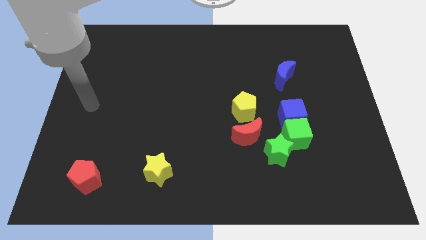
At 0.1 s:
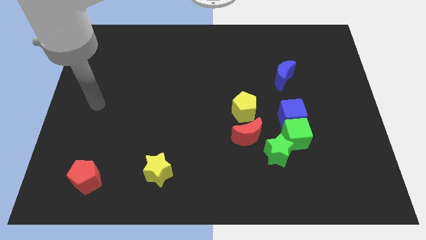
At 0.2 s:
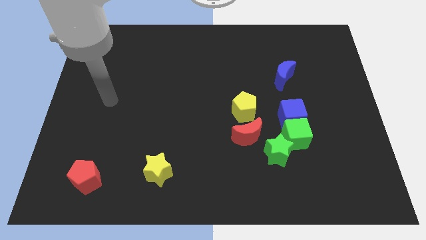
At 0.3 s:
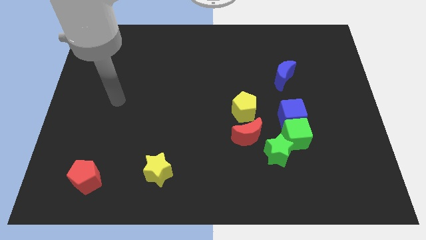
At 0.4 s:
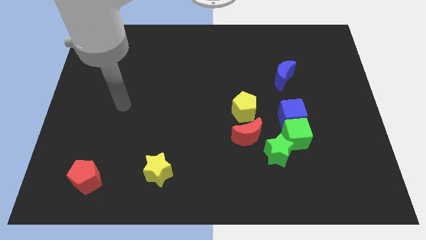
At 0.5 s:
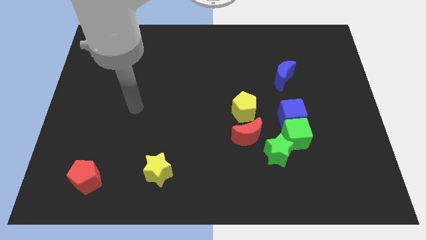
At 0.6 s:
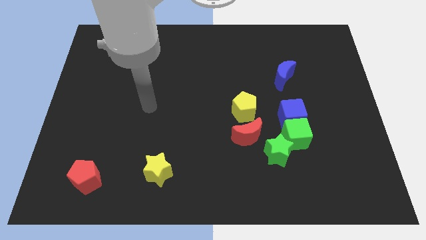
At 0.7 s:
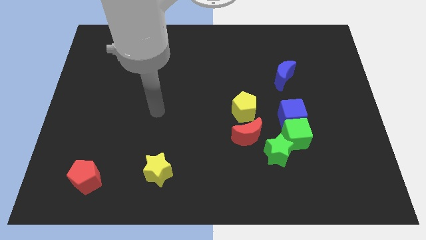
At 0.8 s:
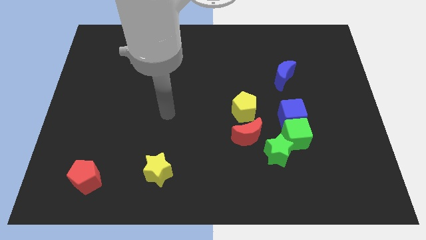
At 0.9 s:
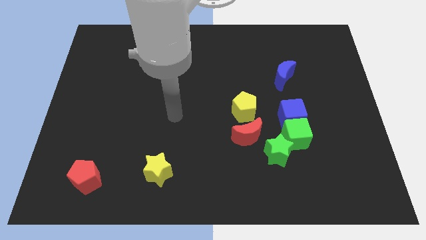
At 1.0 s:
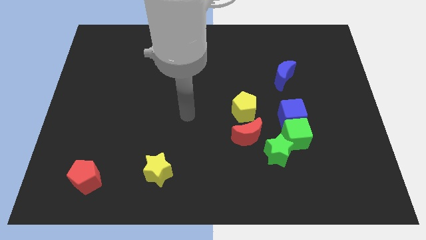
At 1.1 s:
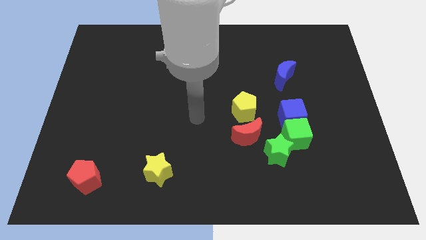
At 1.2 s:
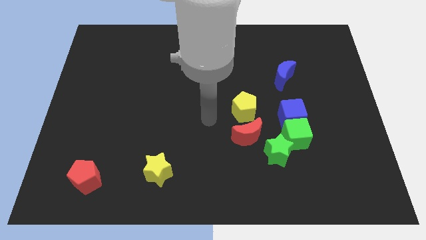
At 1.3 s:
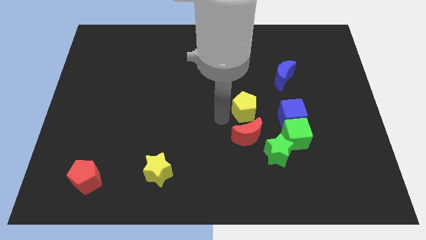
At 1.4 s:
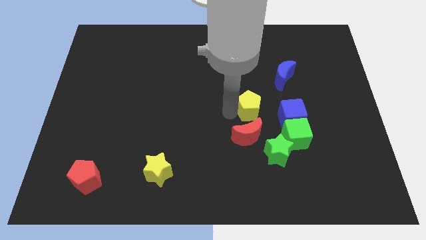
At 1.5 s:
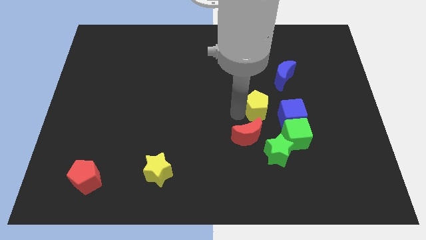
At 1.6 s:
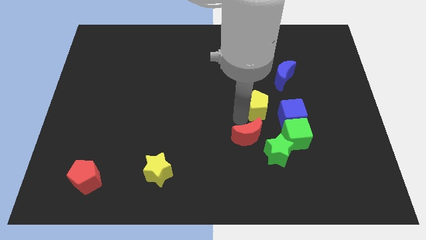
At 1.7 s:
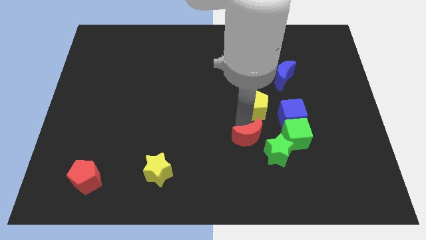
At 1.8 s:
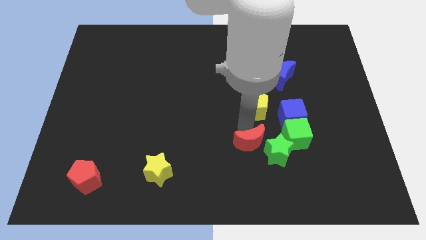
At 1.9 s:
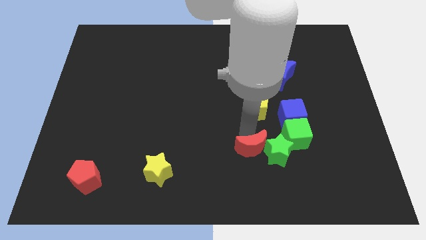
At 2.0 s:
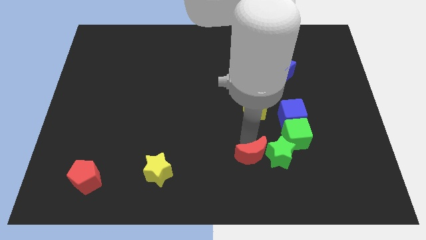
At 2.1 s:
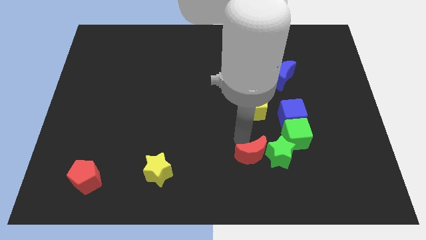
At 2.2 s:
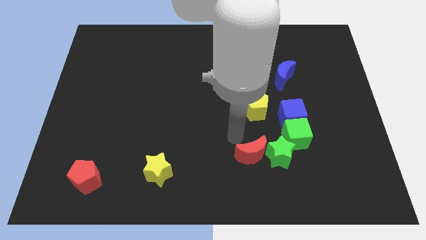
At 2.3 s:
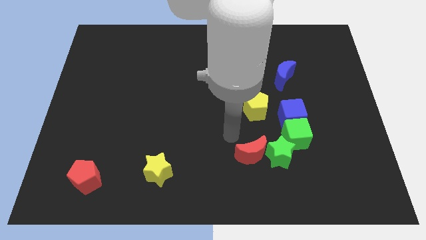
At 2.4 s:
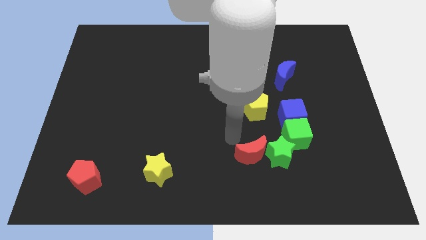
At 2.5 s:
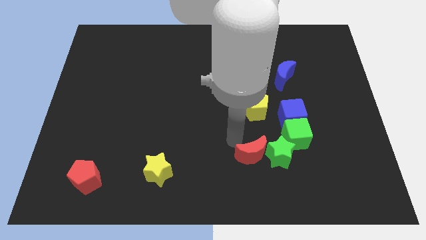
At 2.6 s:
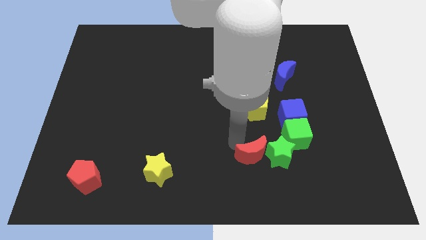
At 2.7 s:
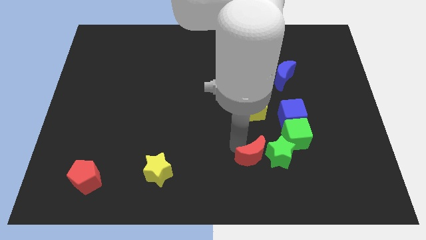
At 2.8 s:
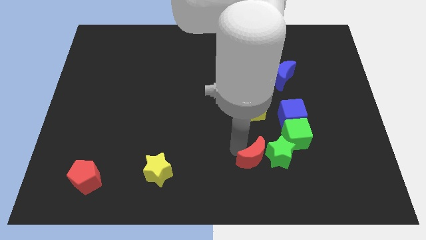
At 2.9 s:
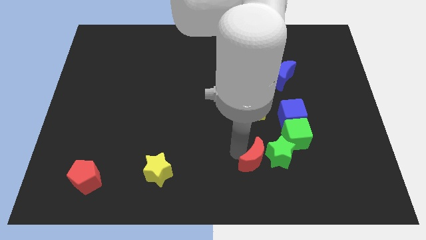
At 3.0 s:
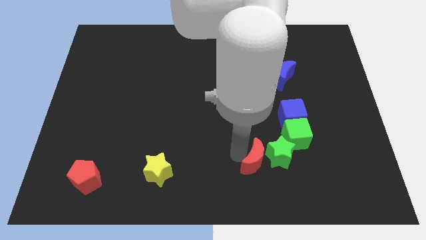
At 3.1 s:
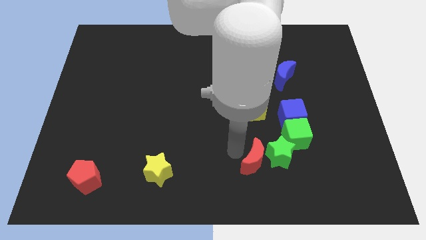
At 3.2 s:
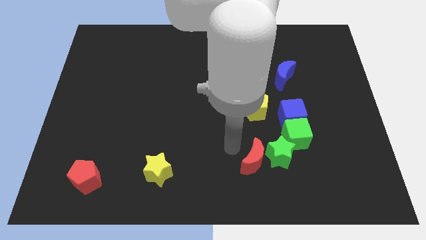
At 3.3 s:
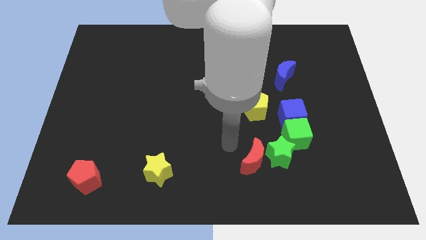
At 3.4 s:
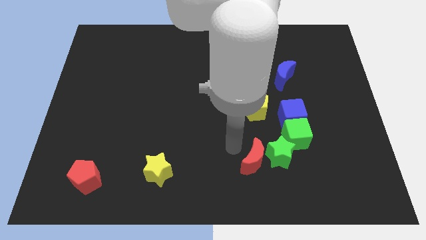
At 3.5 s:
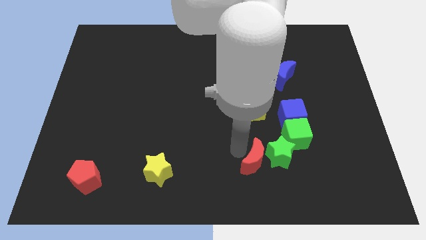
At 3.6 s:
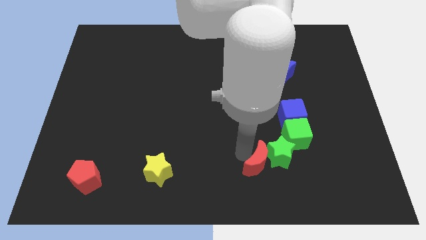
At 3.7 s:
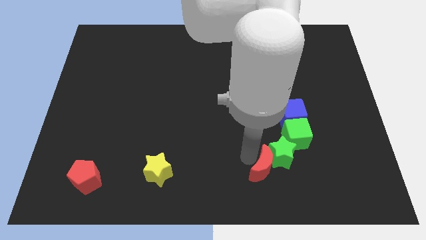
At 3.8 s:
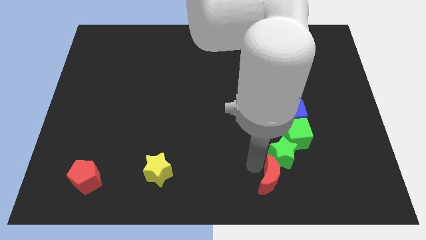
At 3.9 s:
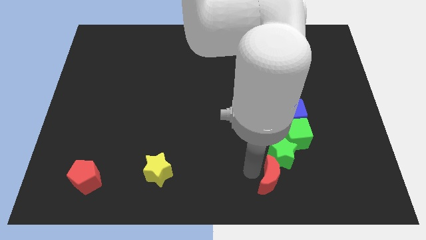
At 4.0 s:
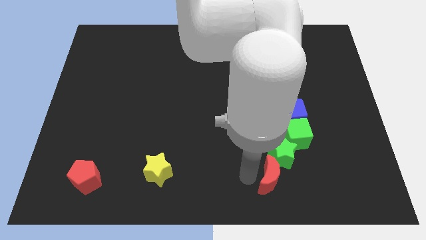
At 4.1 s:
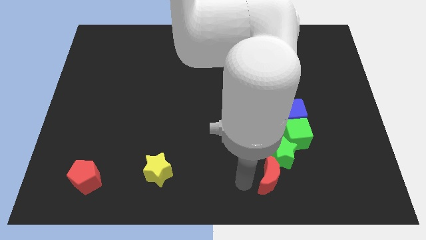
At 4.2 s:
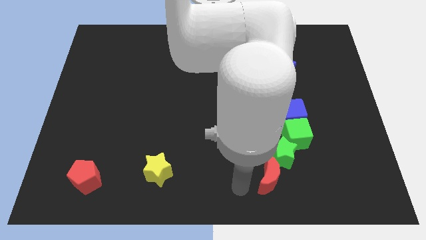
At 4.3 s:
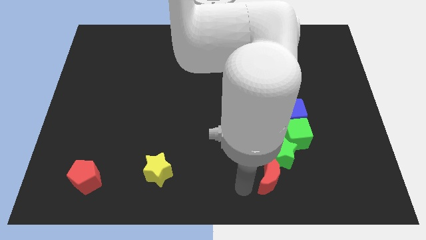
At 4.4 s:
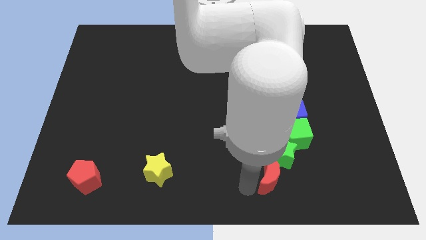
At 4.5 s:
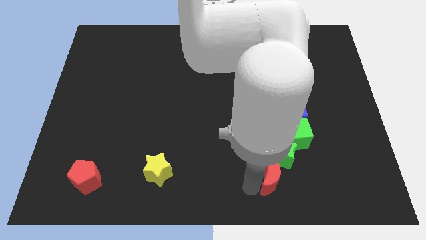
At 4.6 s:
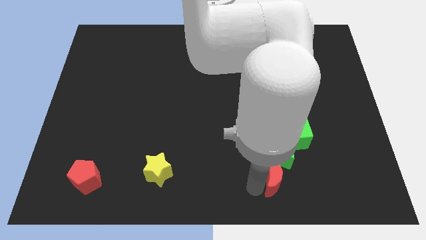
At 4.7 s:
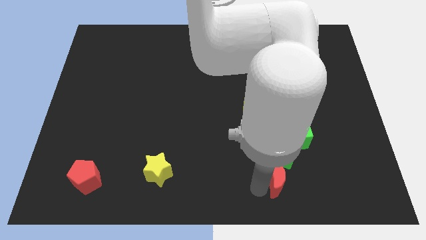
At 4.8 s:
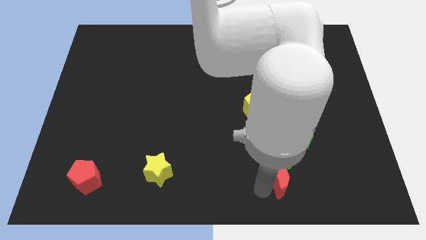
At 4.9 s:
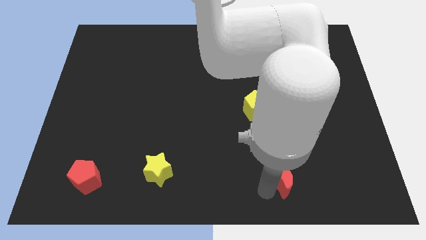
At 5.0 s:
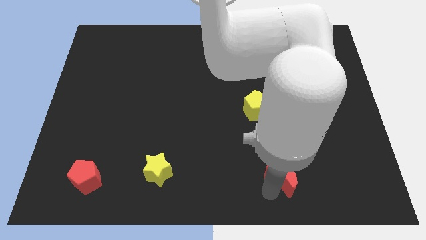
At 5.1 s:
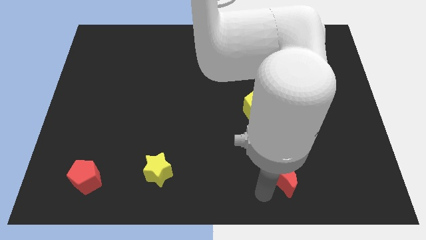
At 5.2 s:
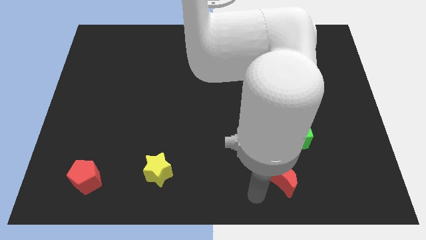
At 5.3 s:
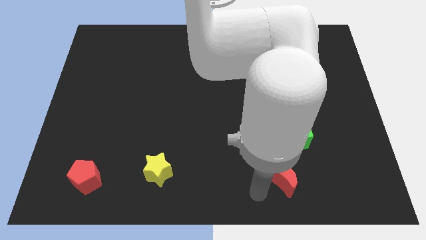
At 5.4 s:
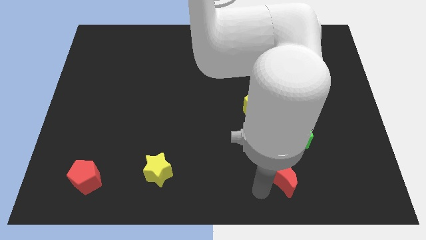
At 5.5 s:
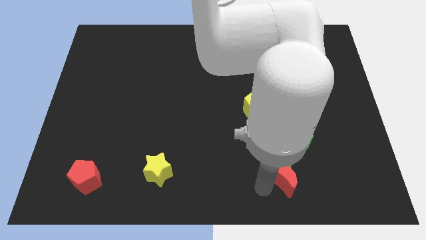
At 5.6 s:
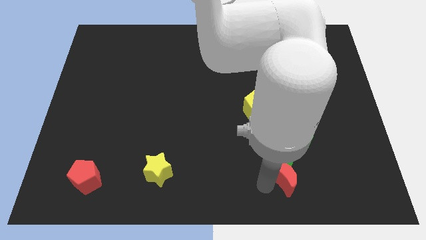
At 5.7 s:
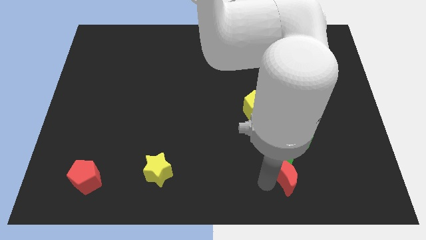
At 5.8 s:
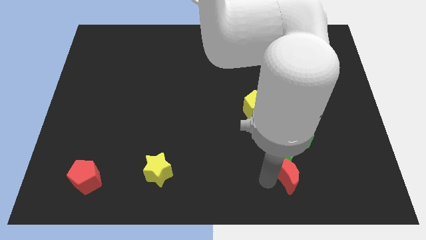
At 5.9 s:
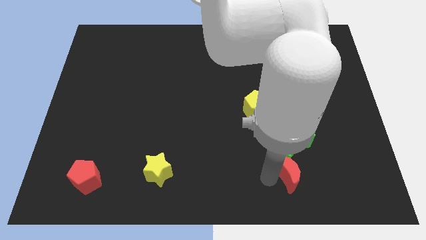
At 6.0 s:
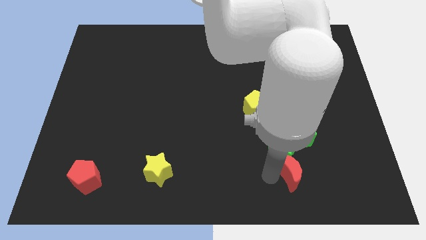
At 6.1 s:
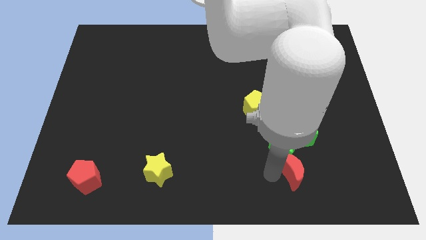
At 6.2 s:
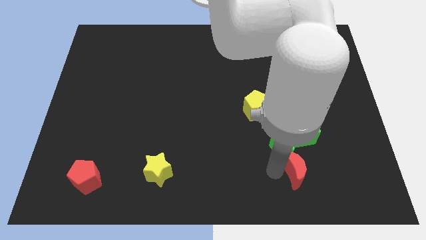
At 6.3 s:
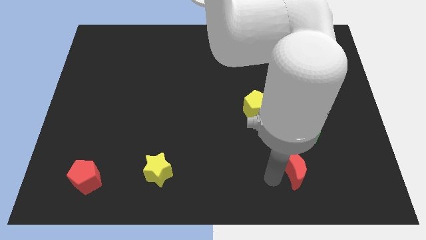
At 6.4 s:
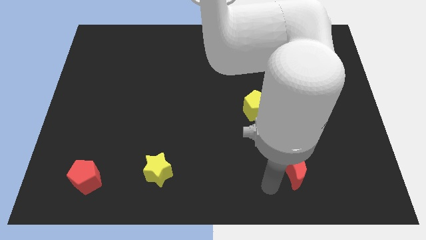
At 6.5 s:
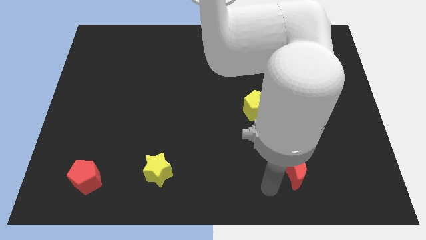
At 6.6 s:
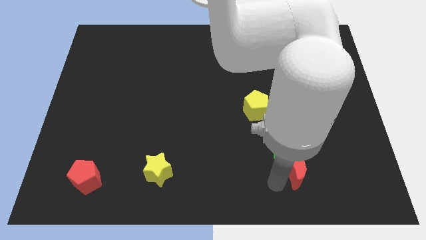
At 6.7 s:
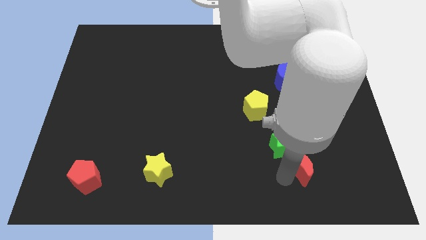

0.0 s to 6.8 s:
push the red moon a little bit to the right

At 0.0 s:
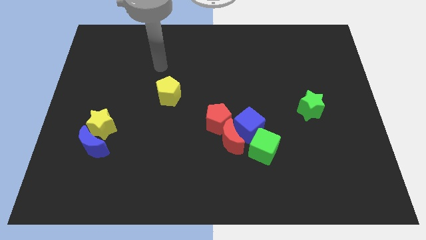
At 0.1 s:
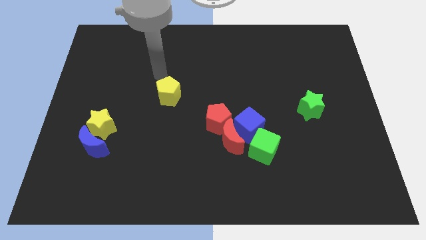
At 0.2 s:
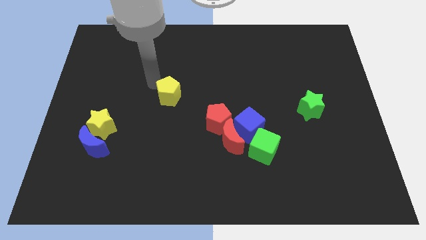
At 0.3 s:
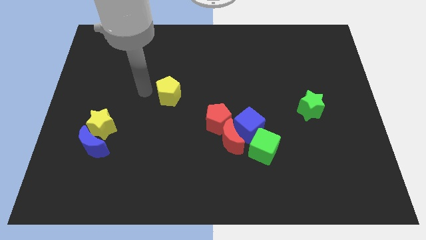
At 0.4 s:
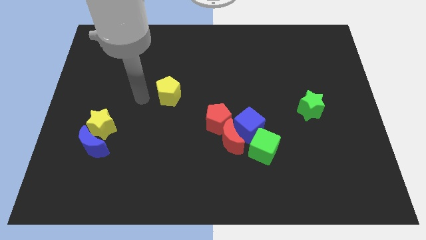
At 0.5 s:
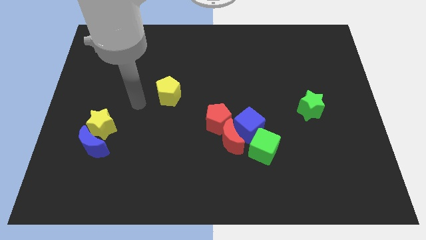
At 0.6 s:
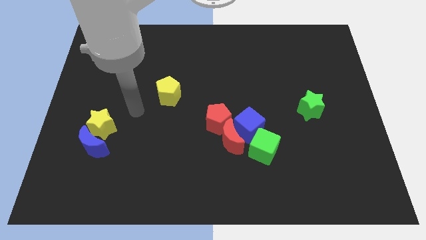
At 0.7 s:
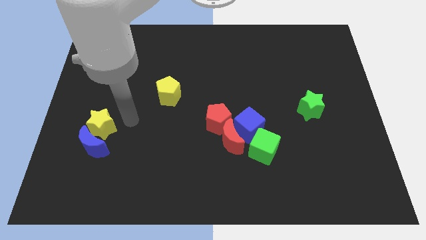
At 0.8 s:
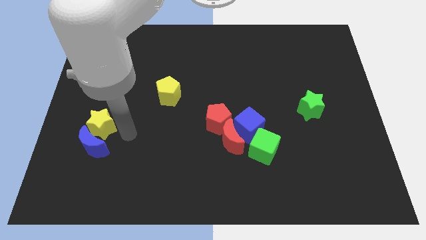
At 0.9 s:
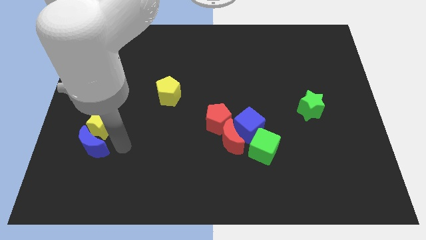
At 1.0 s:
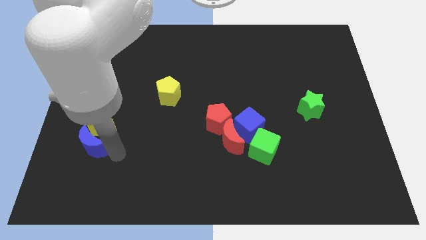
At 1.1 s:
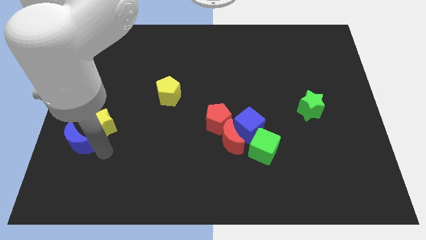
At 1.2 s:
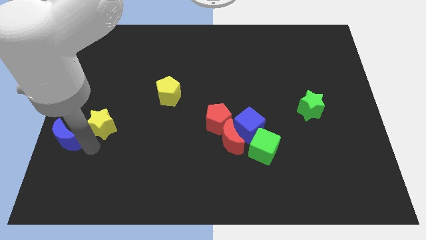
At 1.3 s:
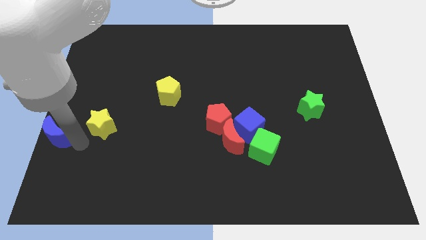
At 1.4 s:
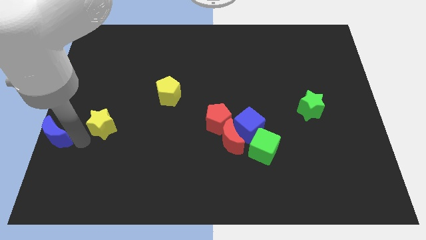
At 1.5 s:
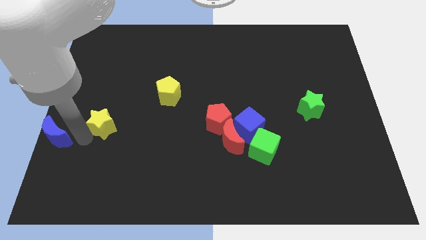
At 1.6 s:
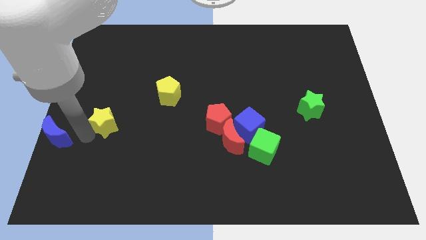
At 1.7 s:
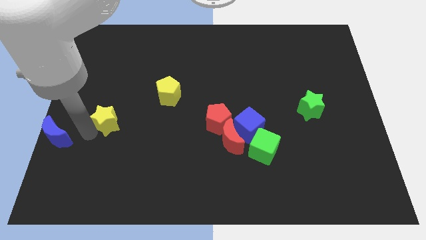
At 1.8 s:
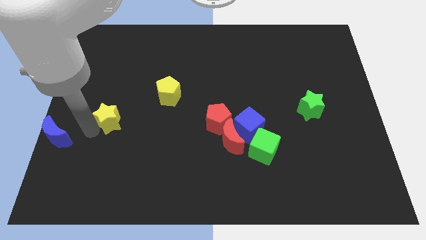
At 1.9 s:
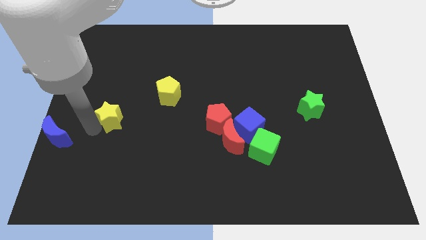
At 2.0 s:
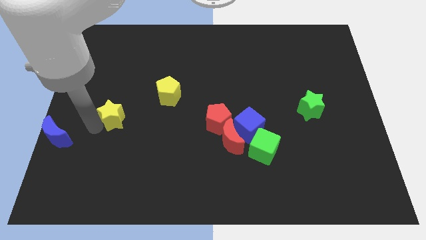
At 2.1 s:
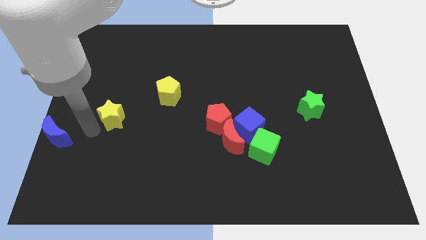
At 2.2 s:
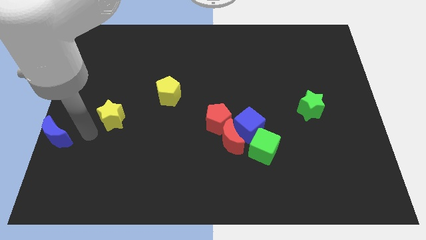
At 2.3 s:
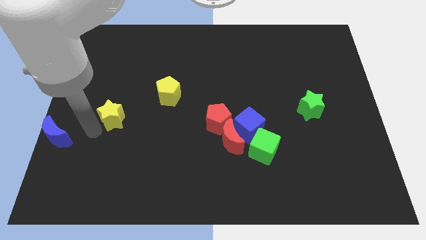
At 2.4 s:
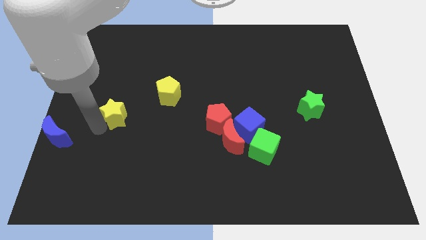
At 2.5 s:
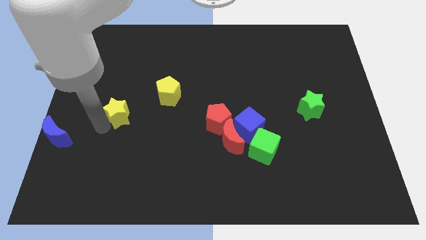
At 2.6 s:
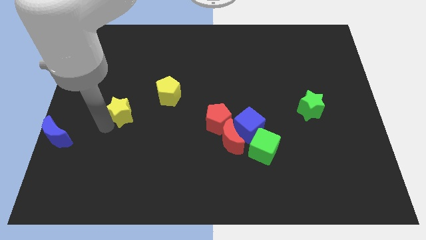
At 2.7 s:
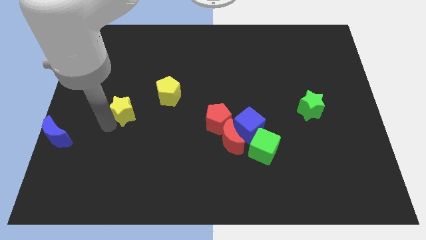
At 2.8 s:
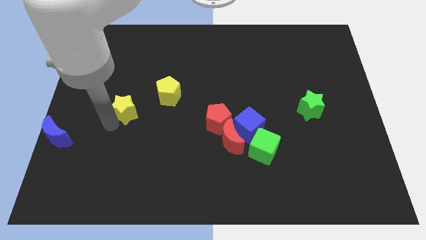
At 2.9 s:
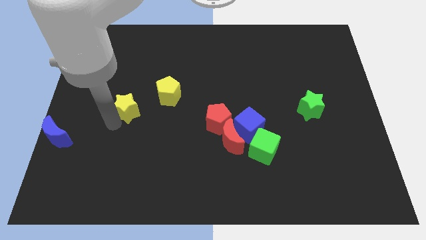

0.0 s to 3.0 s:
slide the yellow star a little up and to the right diagonally
